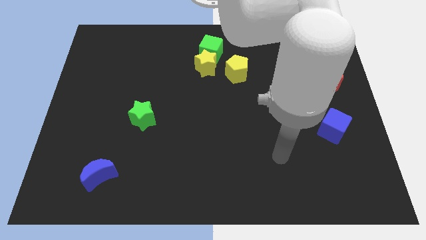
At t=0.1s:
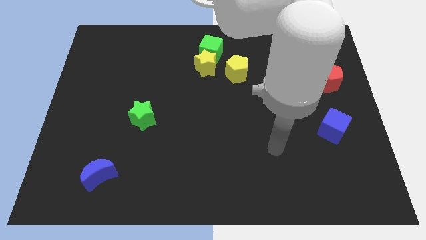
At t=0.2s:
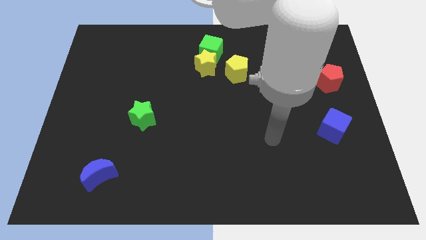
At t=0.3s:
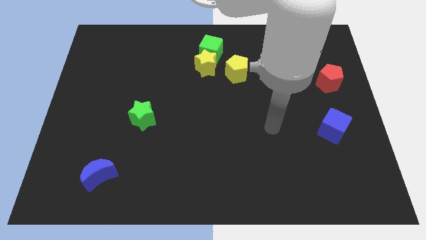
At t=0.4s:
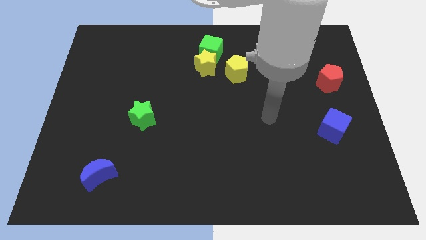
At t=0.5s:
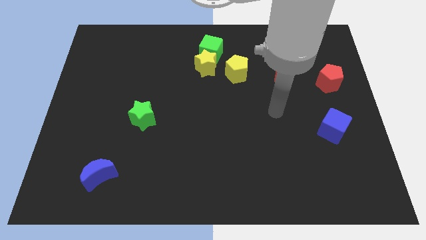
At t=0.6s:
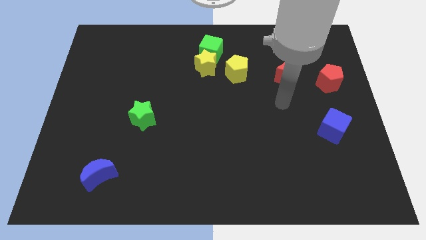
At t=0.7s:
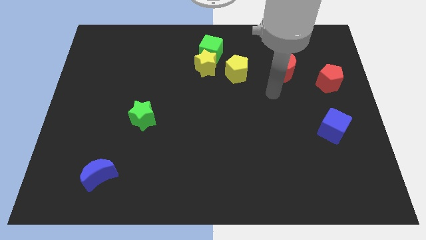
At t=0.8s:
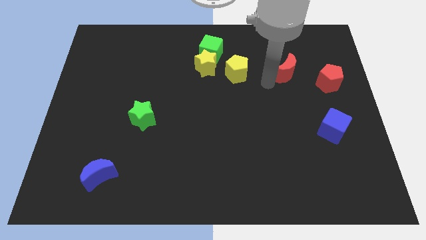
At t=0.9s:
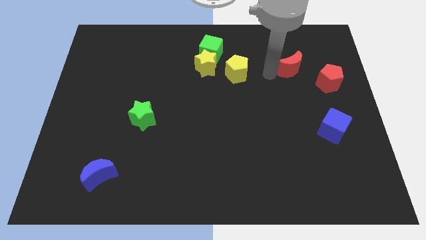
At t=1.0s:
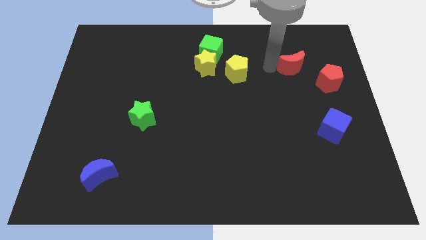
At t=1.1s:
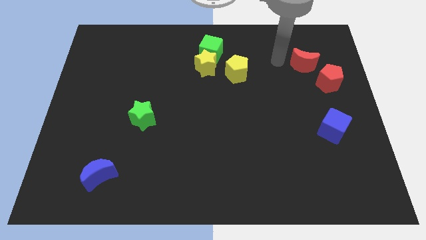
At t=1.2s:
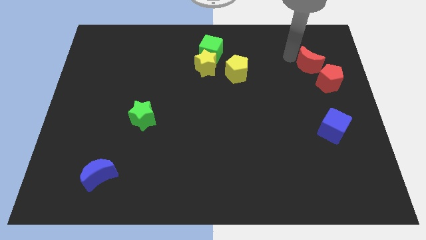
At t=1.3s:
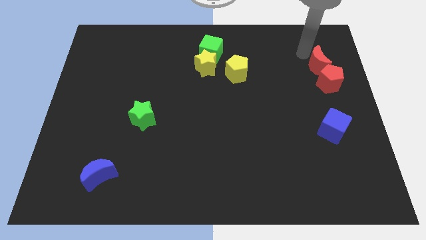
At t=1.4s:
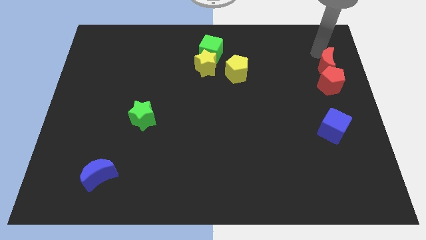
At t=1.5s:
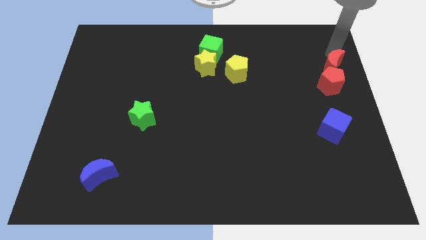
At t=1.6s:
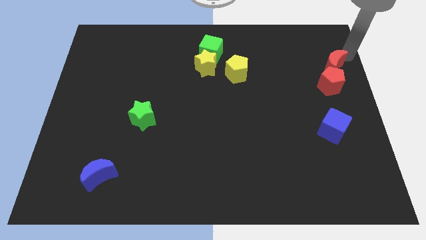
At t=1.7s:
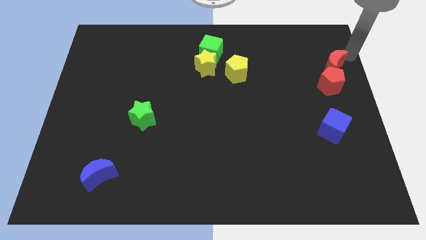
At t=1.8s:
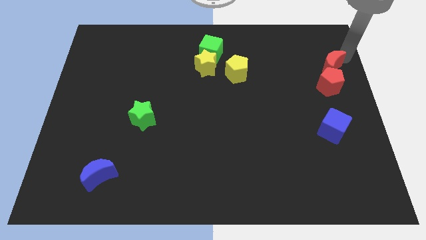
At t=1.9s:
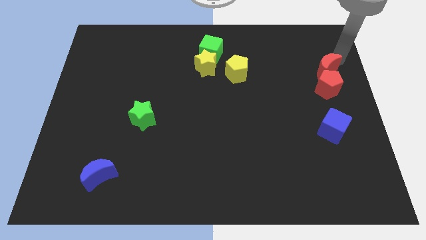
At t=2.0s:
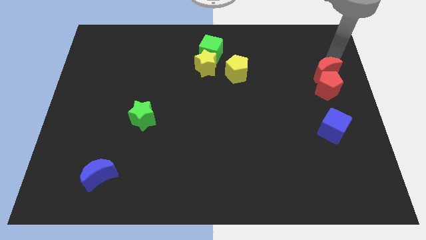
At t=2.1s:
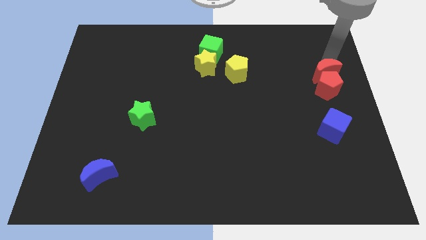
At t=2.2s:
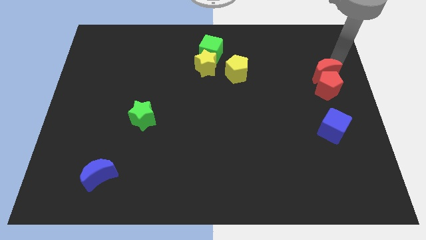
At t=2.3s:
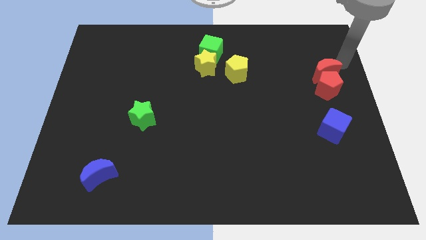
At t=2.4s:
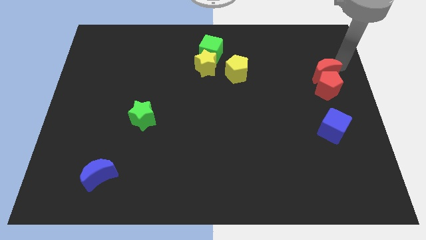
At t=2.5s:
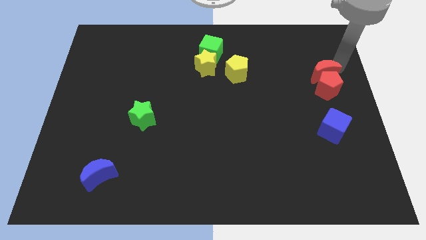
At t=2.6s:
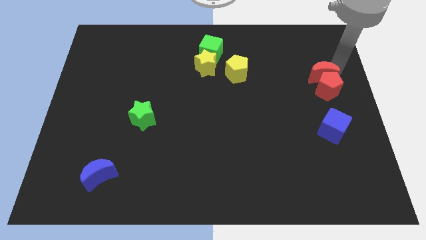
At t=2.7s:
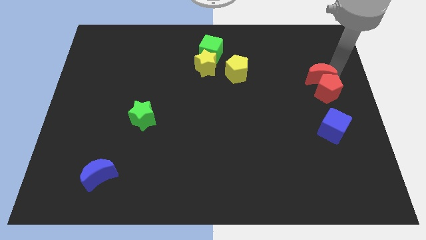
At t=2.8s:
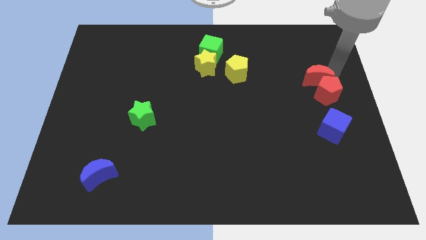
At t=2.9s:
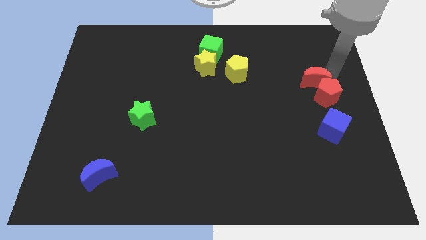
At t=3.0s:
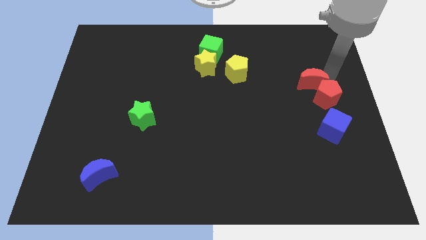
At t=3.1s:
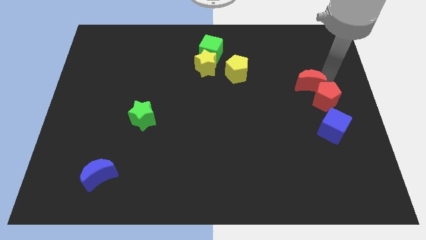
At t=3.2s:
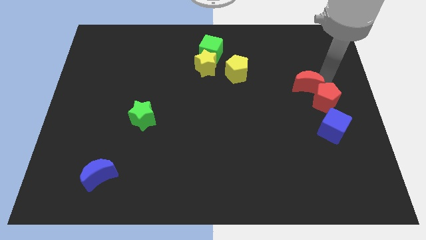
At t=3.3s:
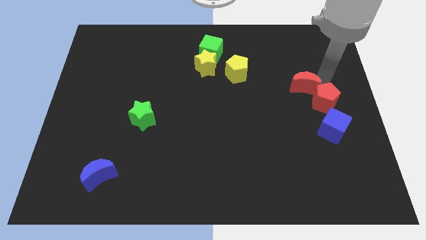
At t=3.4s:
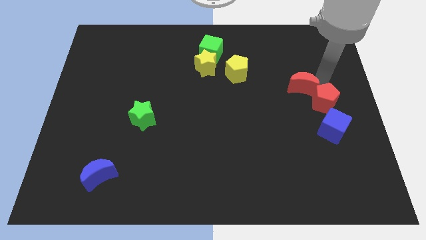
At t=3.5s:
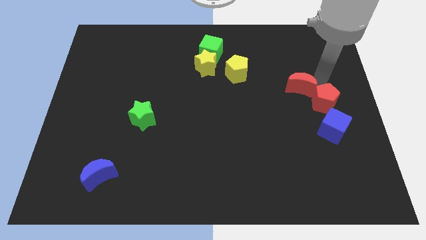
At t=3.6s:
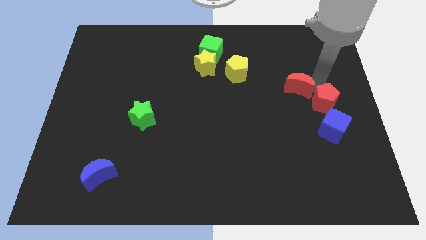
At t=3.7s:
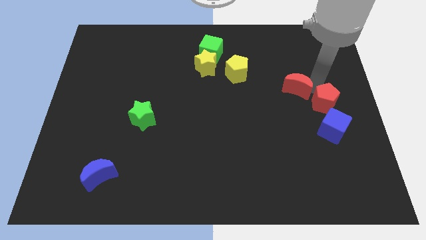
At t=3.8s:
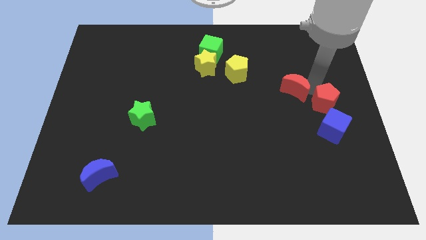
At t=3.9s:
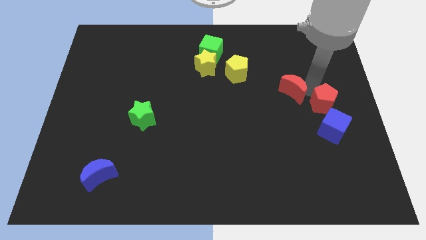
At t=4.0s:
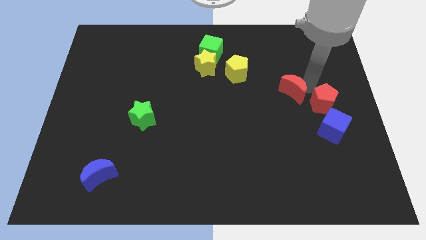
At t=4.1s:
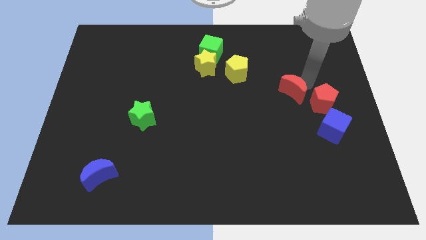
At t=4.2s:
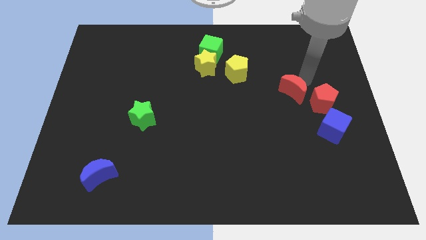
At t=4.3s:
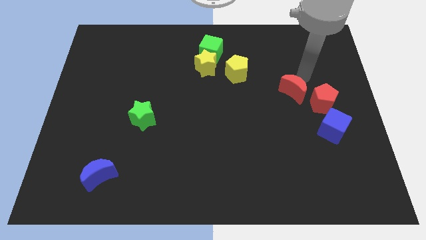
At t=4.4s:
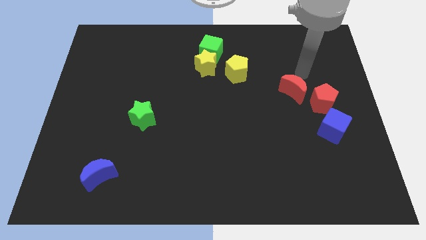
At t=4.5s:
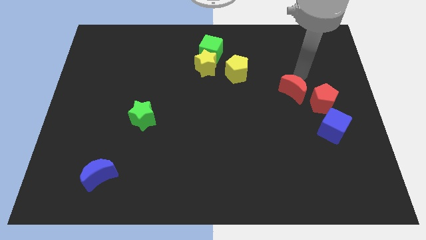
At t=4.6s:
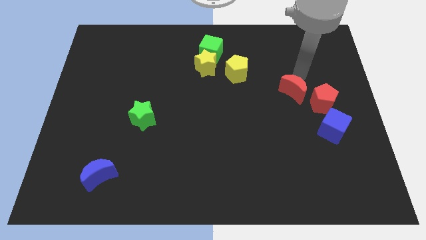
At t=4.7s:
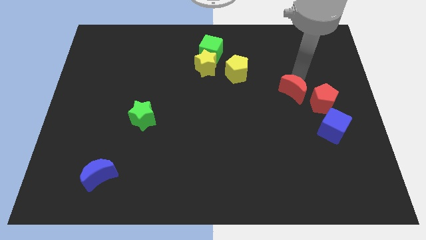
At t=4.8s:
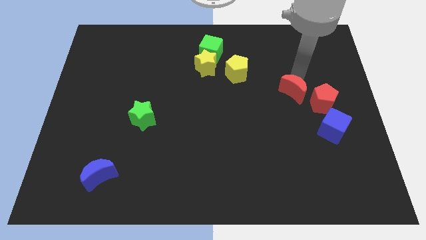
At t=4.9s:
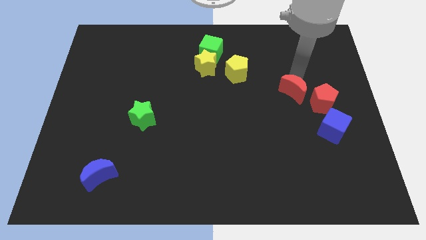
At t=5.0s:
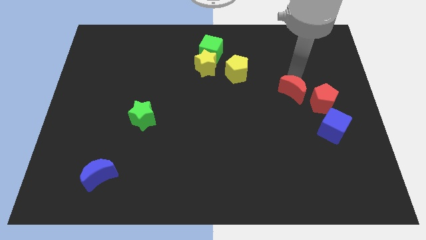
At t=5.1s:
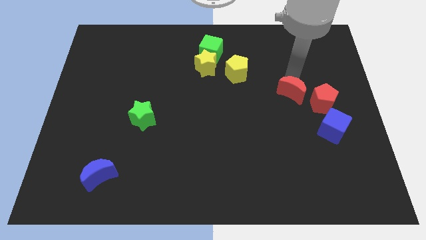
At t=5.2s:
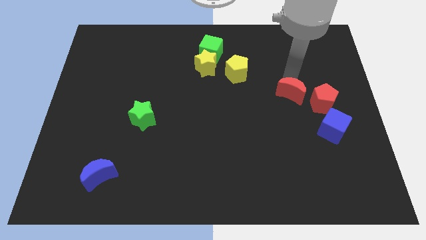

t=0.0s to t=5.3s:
slightly push the red moon downwards

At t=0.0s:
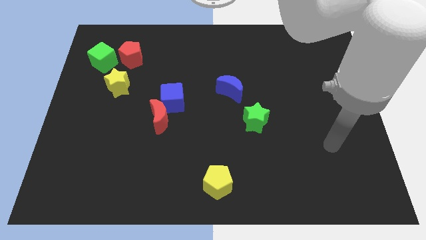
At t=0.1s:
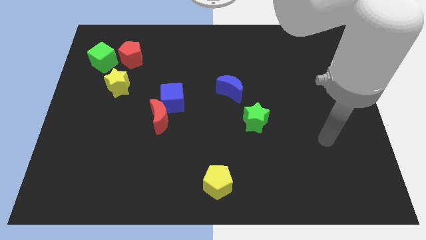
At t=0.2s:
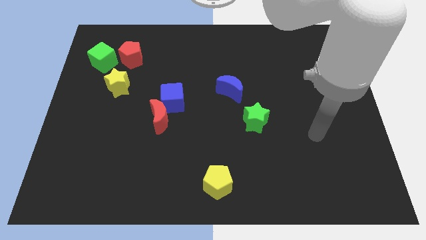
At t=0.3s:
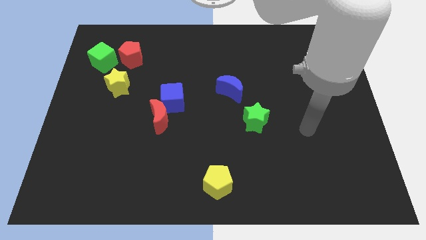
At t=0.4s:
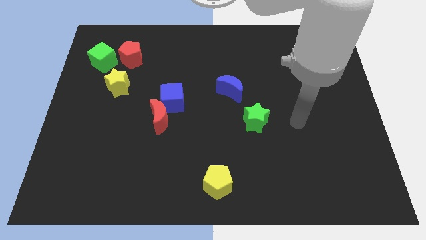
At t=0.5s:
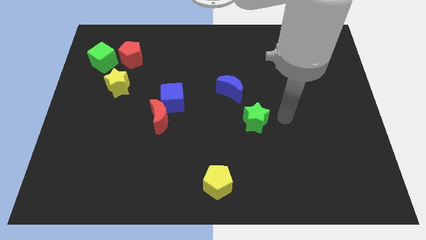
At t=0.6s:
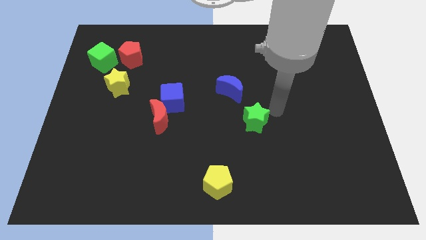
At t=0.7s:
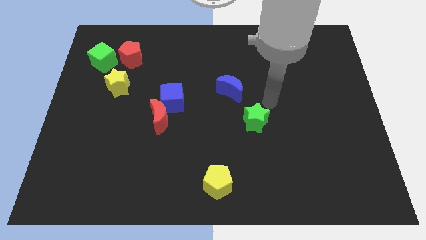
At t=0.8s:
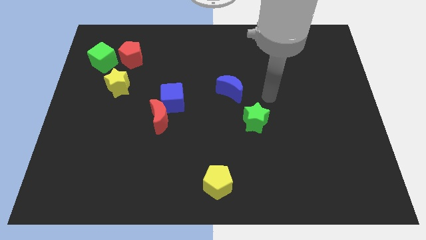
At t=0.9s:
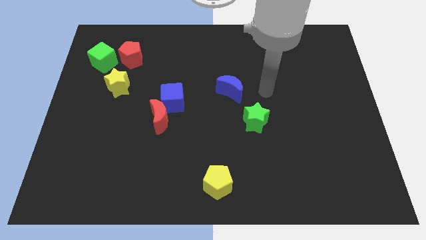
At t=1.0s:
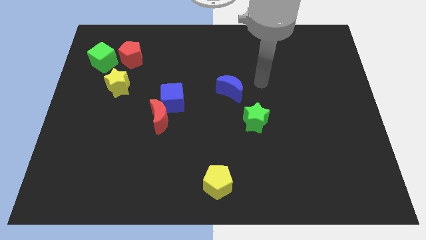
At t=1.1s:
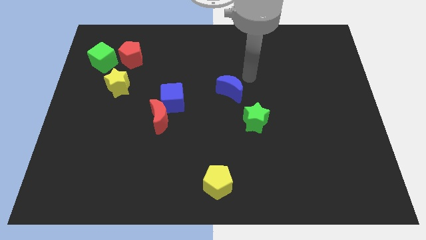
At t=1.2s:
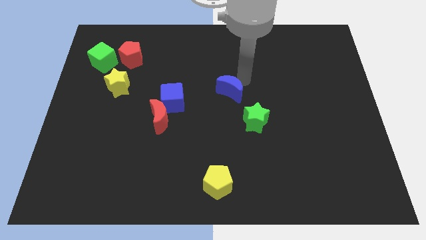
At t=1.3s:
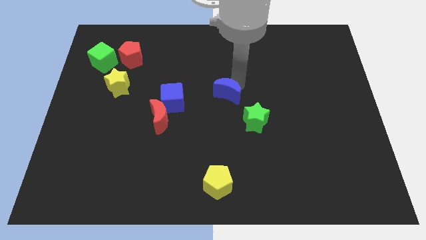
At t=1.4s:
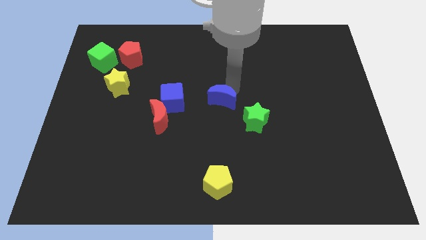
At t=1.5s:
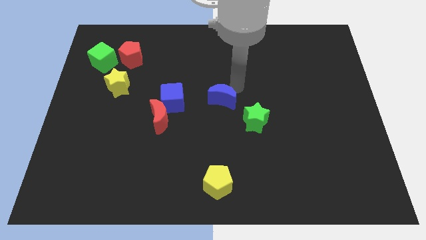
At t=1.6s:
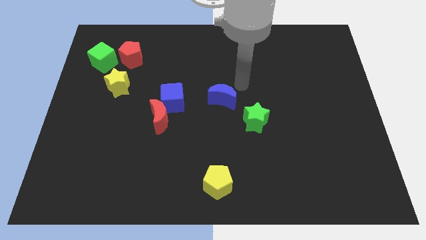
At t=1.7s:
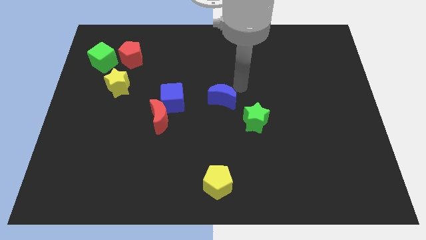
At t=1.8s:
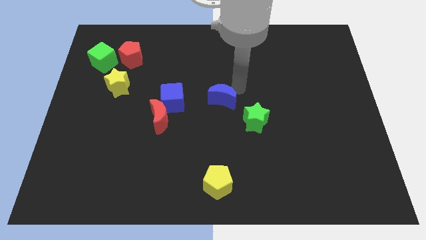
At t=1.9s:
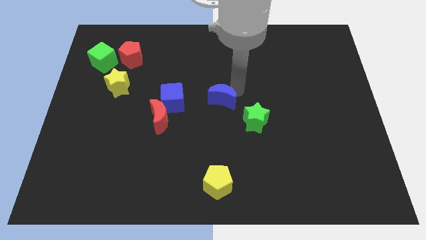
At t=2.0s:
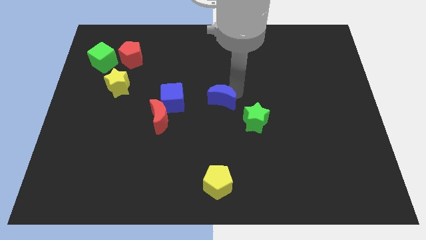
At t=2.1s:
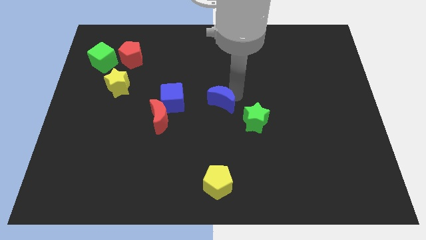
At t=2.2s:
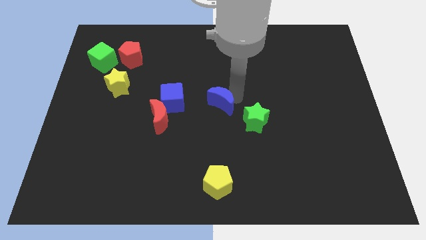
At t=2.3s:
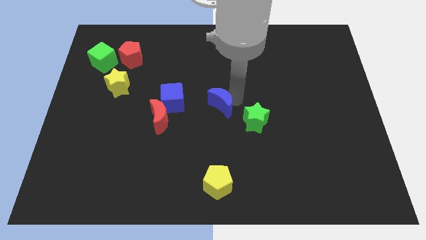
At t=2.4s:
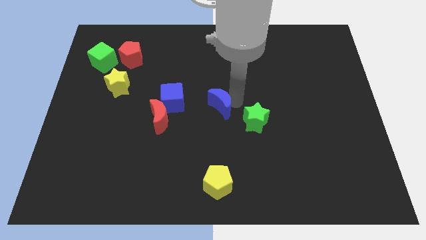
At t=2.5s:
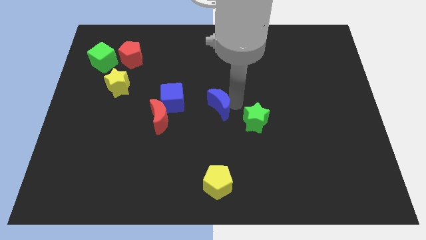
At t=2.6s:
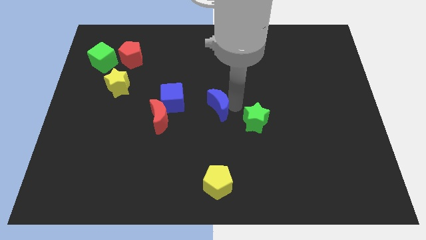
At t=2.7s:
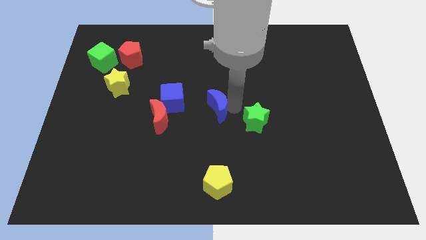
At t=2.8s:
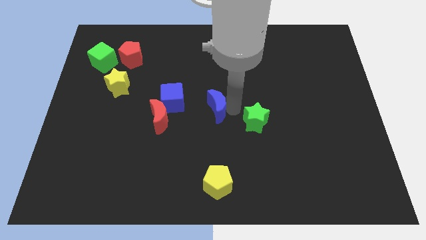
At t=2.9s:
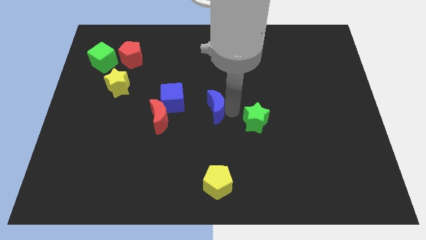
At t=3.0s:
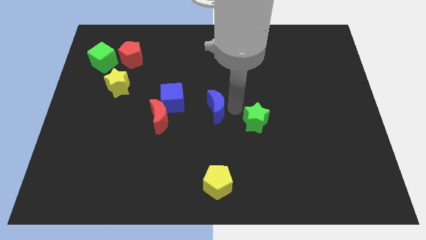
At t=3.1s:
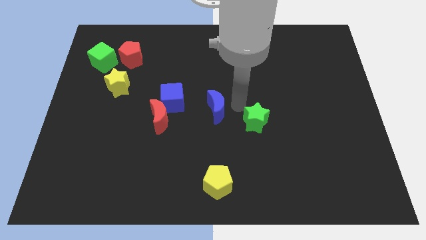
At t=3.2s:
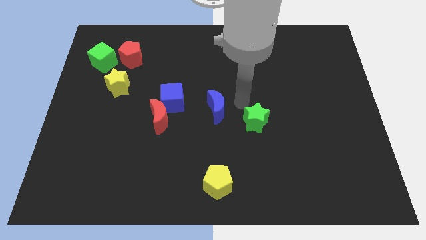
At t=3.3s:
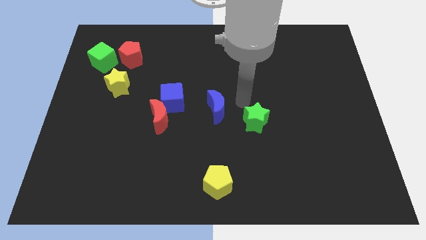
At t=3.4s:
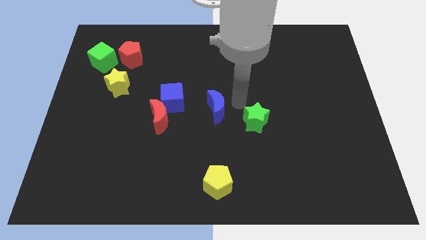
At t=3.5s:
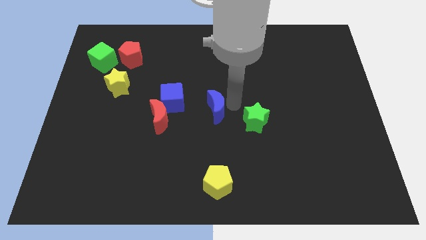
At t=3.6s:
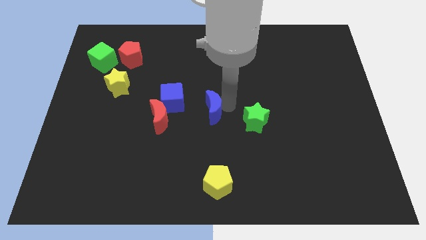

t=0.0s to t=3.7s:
slide the blue moon diagonally down and left a little bit
